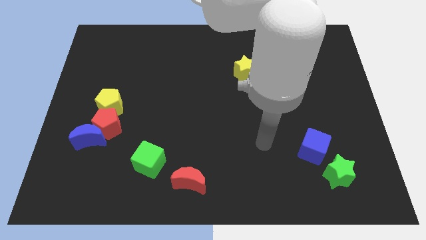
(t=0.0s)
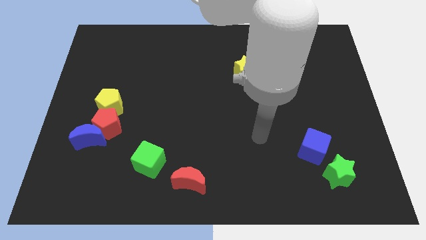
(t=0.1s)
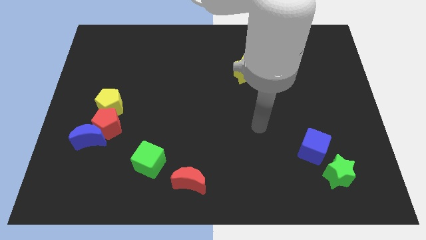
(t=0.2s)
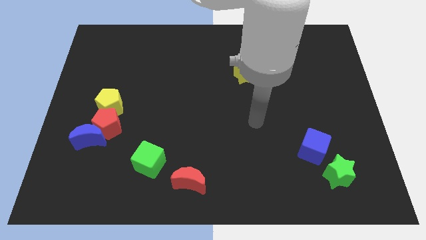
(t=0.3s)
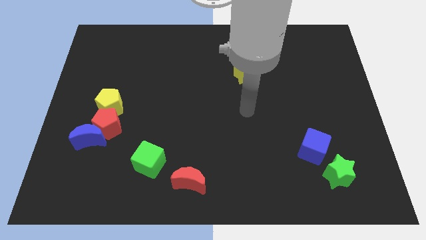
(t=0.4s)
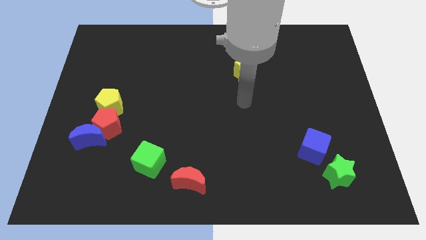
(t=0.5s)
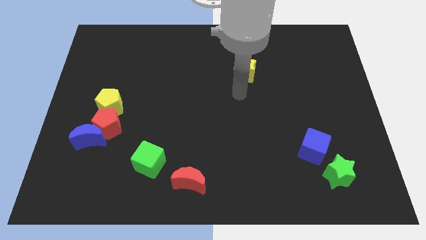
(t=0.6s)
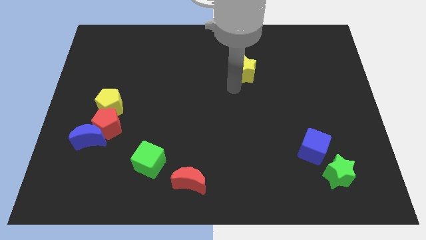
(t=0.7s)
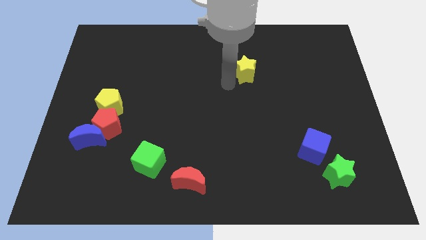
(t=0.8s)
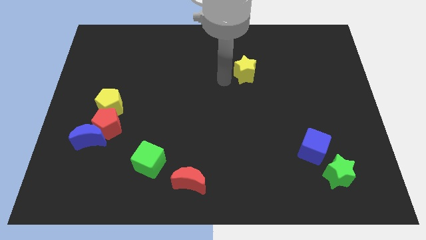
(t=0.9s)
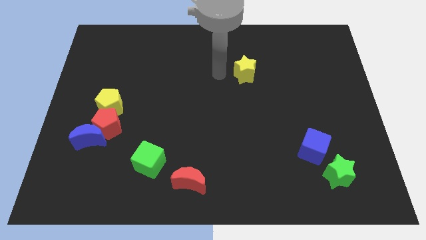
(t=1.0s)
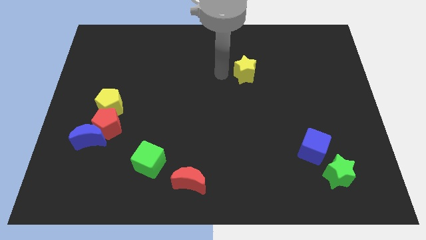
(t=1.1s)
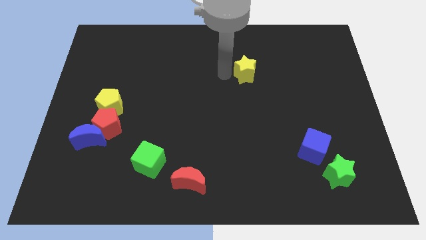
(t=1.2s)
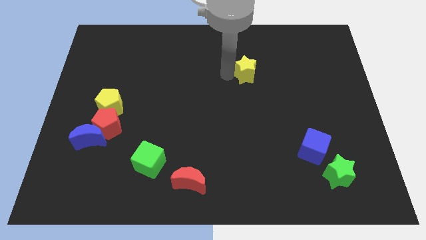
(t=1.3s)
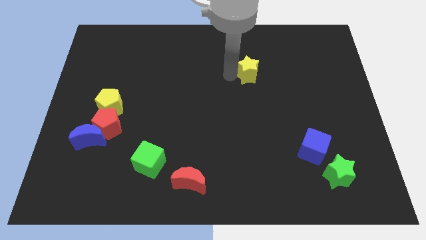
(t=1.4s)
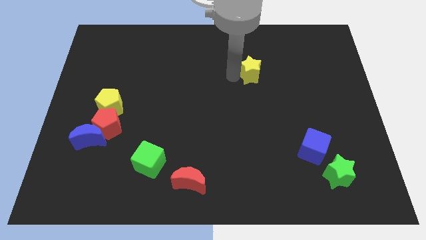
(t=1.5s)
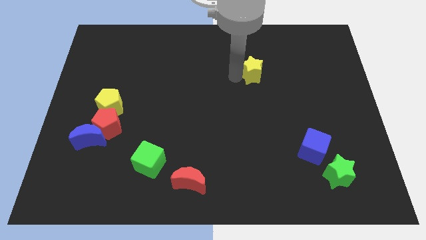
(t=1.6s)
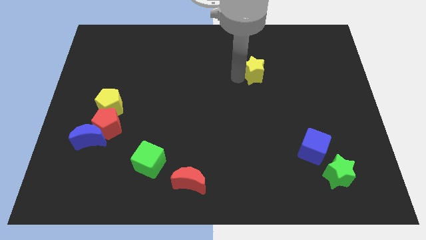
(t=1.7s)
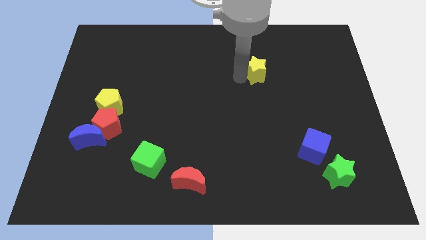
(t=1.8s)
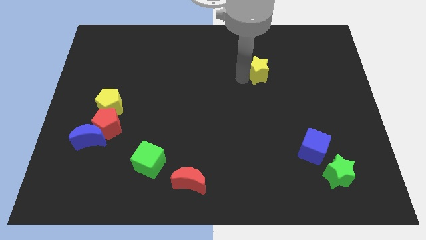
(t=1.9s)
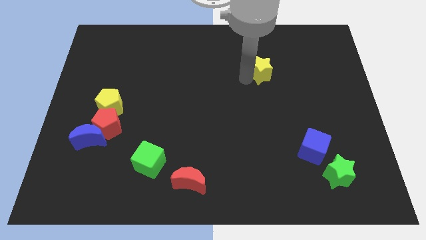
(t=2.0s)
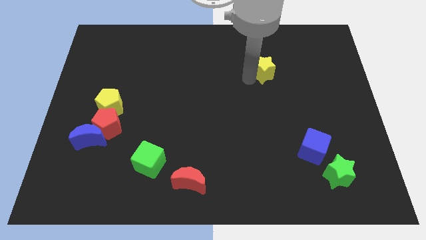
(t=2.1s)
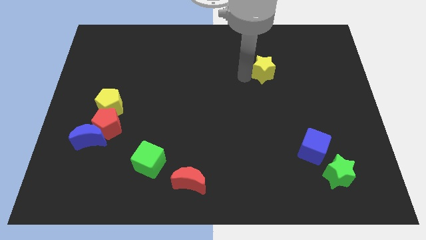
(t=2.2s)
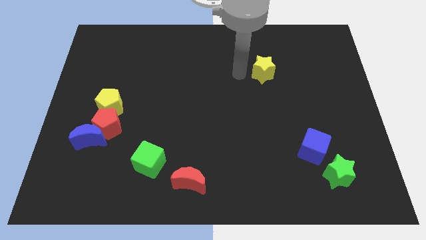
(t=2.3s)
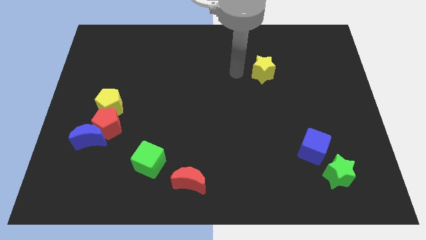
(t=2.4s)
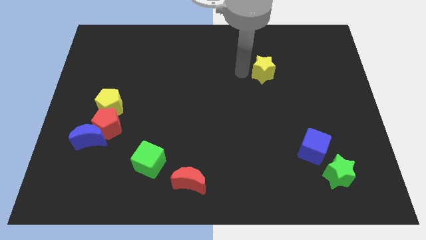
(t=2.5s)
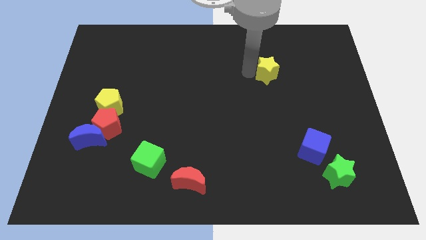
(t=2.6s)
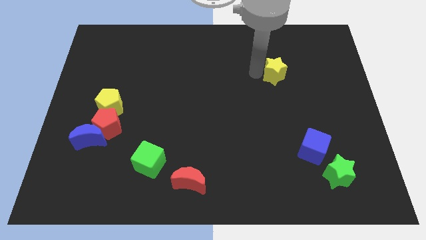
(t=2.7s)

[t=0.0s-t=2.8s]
slightly move the yellow star to the right

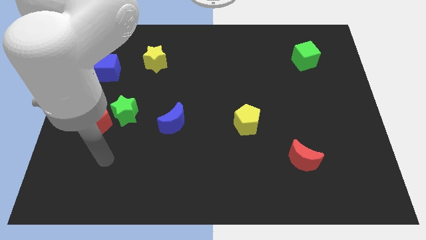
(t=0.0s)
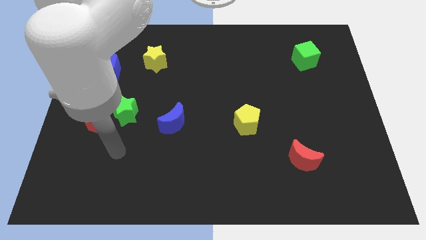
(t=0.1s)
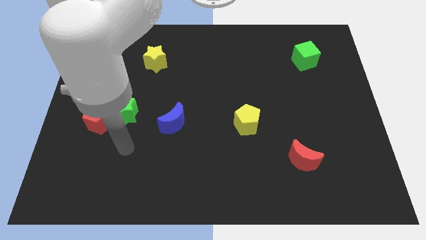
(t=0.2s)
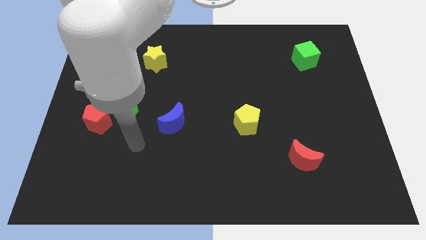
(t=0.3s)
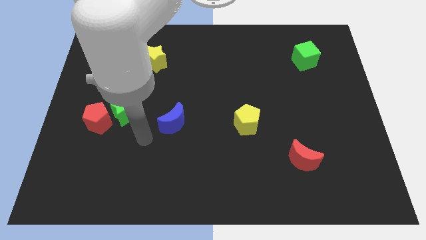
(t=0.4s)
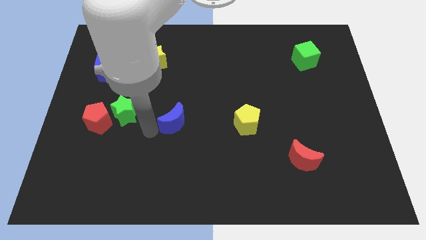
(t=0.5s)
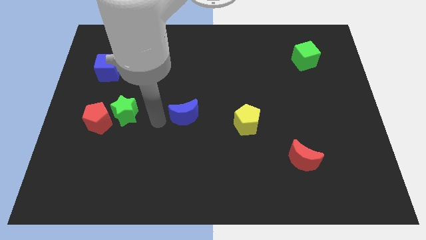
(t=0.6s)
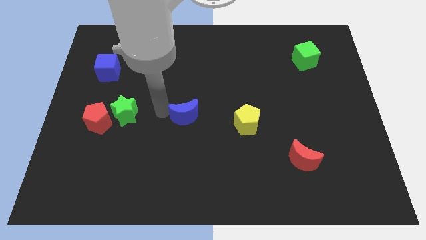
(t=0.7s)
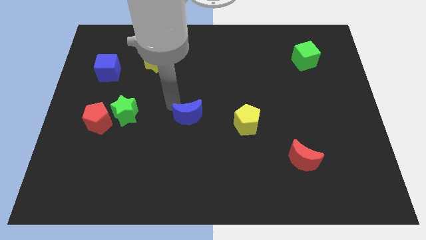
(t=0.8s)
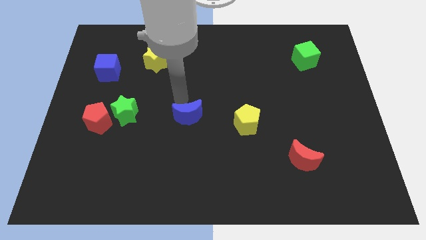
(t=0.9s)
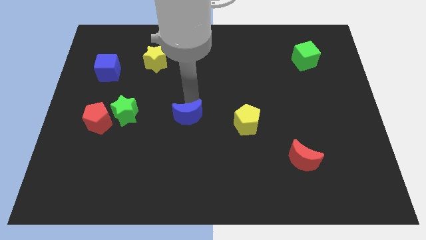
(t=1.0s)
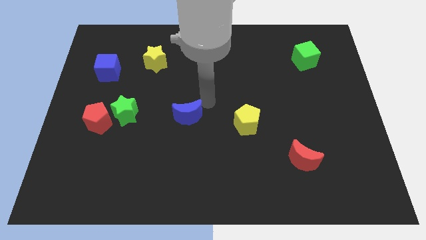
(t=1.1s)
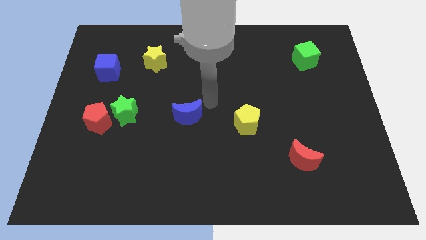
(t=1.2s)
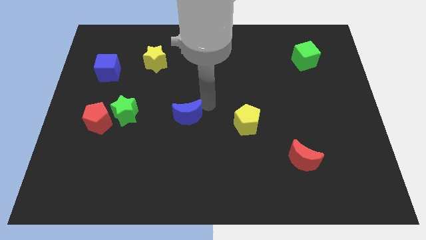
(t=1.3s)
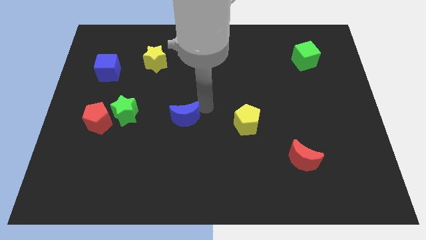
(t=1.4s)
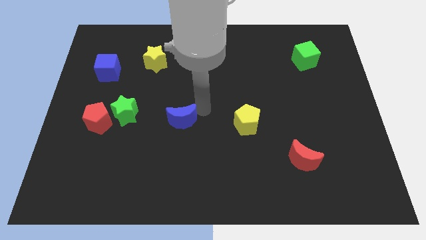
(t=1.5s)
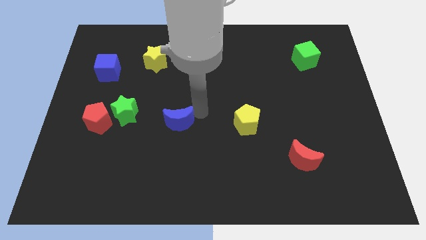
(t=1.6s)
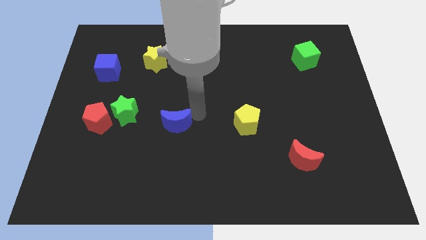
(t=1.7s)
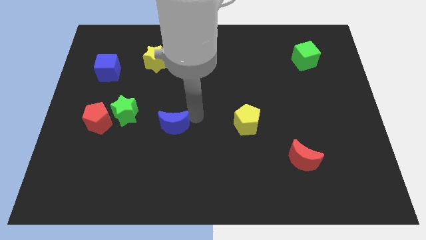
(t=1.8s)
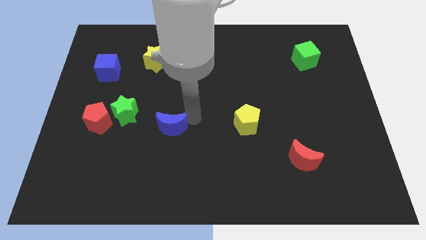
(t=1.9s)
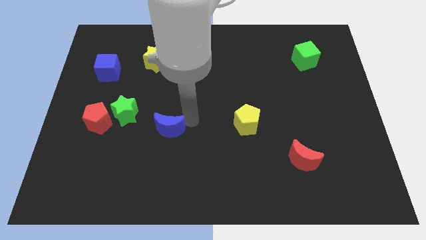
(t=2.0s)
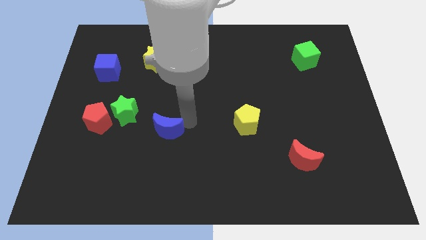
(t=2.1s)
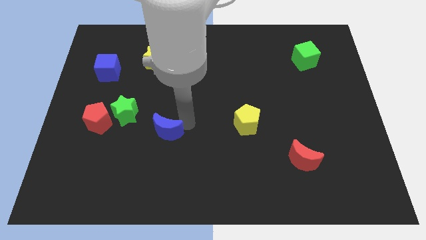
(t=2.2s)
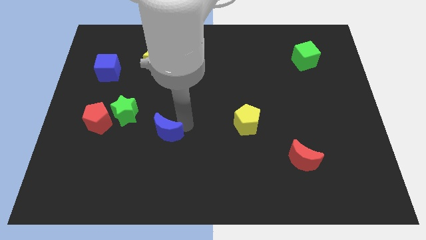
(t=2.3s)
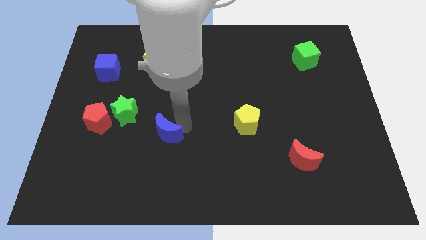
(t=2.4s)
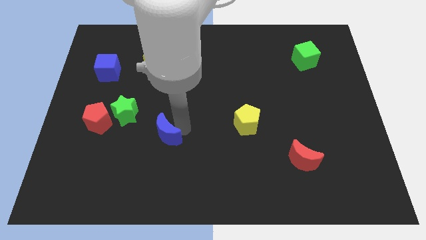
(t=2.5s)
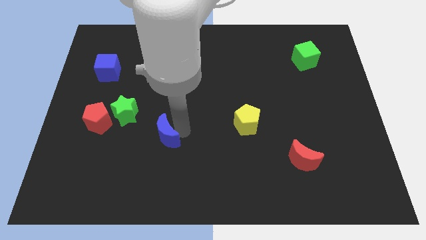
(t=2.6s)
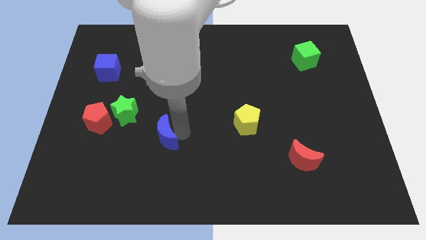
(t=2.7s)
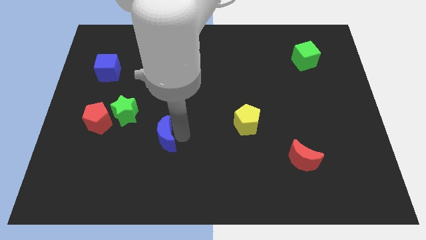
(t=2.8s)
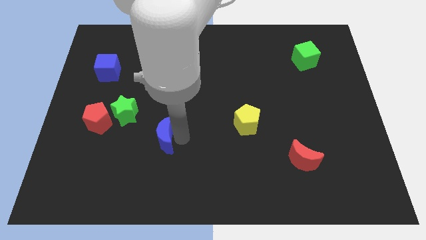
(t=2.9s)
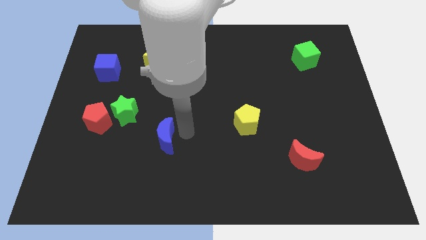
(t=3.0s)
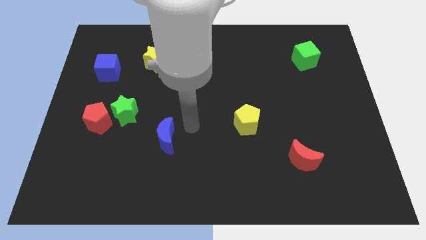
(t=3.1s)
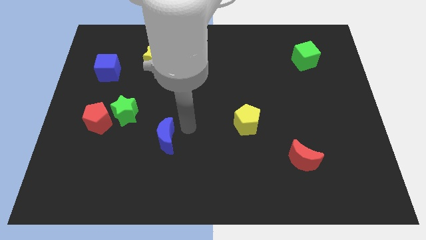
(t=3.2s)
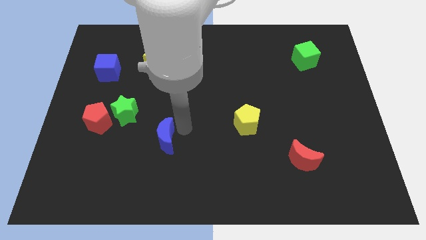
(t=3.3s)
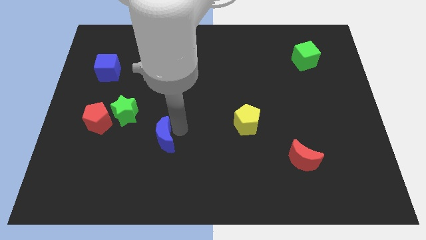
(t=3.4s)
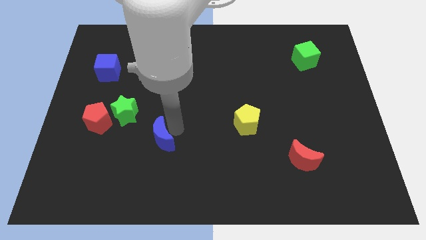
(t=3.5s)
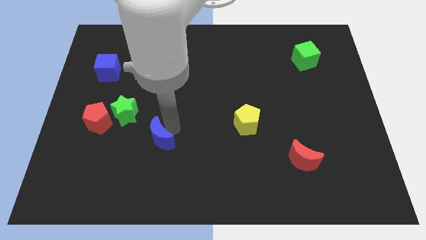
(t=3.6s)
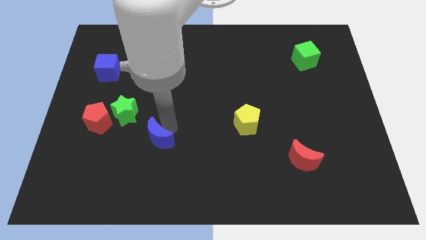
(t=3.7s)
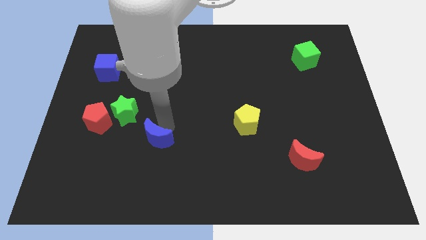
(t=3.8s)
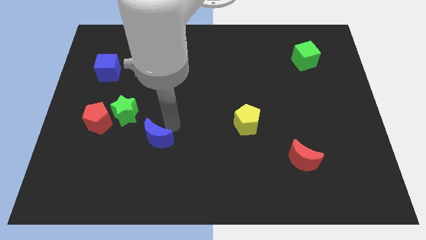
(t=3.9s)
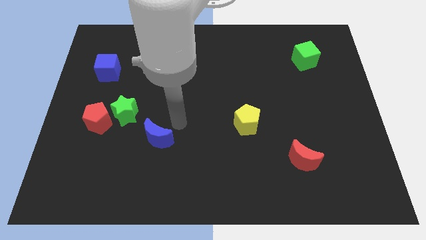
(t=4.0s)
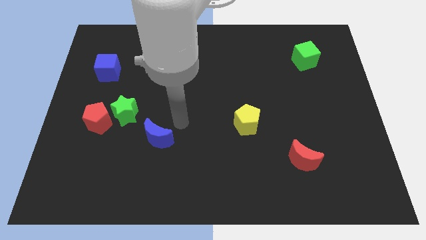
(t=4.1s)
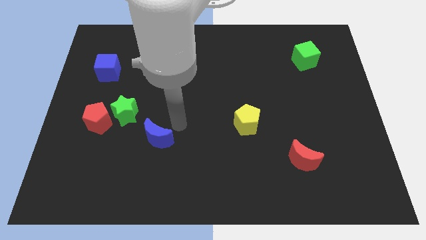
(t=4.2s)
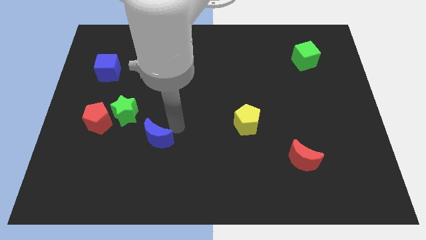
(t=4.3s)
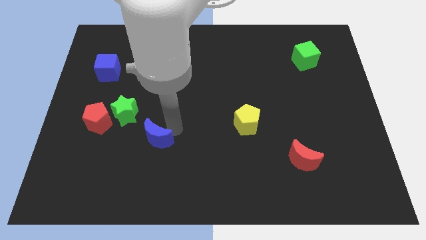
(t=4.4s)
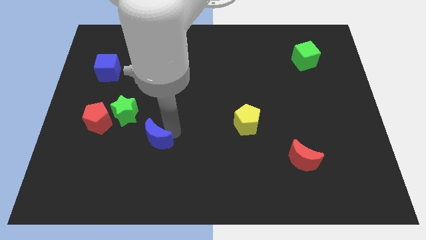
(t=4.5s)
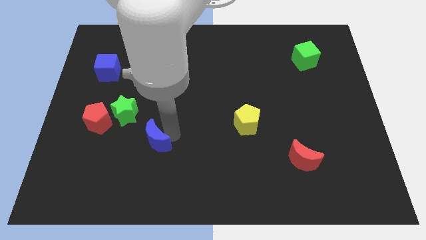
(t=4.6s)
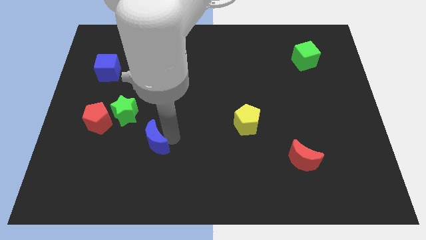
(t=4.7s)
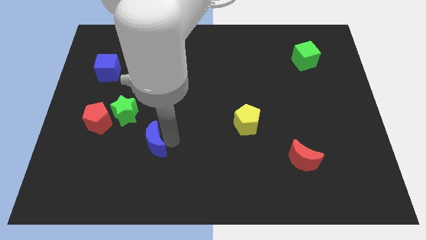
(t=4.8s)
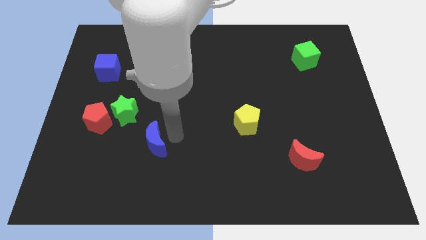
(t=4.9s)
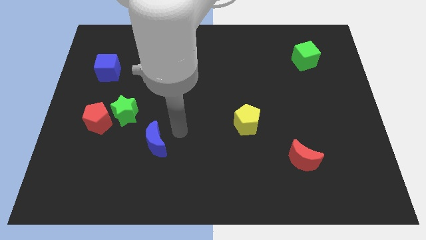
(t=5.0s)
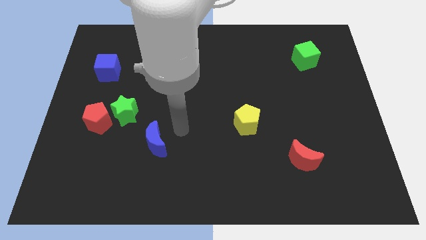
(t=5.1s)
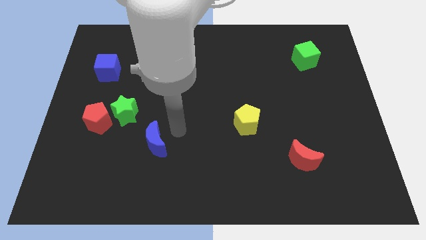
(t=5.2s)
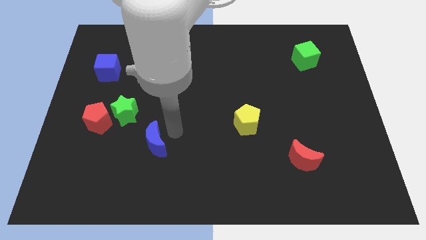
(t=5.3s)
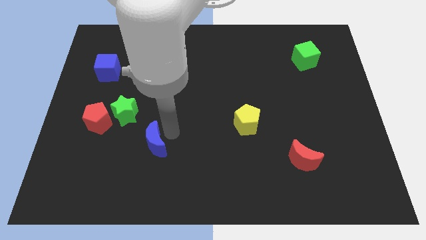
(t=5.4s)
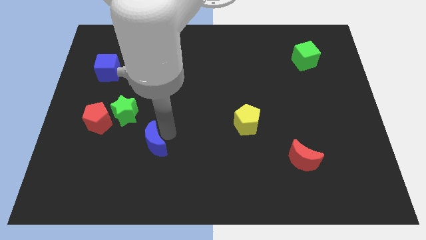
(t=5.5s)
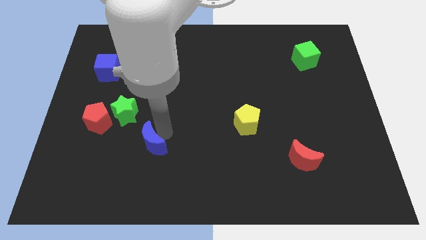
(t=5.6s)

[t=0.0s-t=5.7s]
slightly slide the blue moon downwards and then to the left
